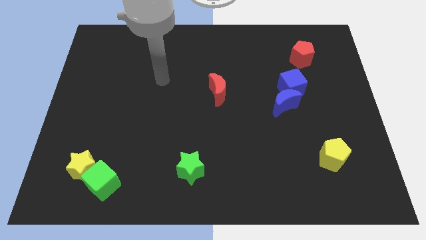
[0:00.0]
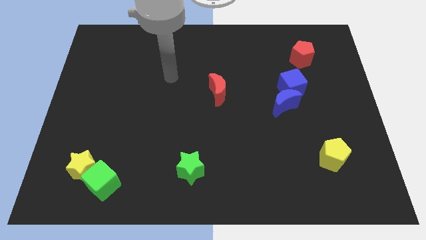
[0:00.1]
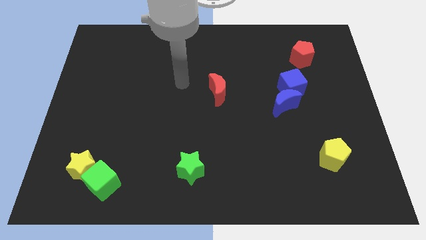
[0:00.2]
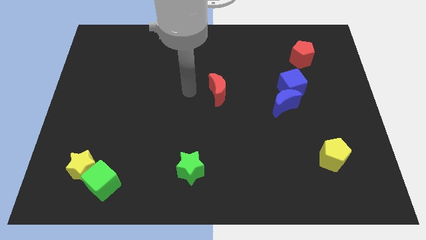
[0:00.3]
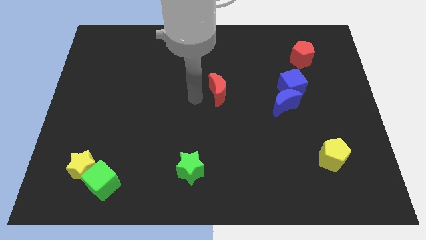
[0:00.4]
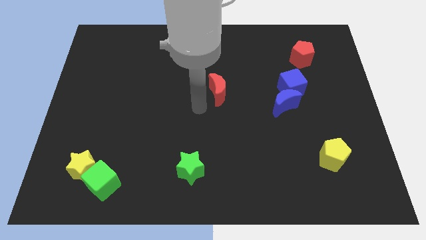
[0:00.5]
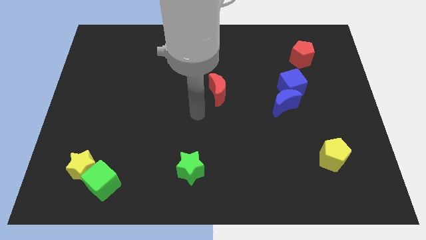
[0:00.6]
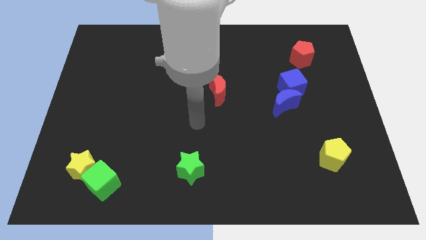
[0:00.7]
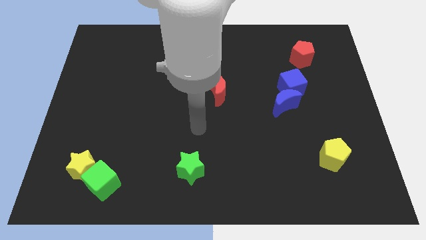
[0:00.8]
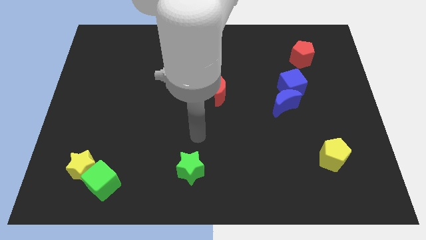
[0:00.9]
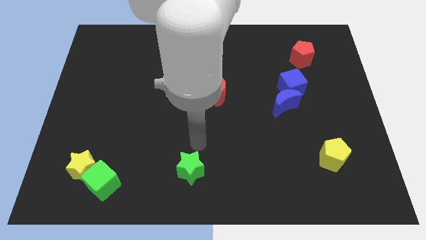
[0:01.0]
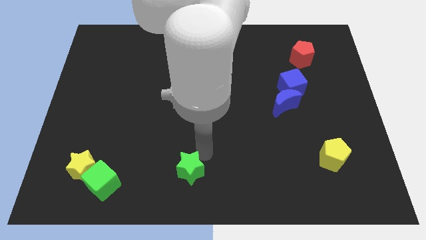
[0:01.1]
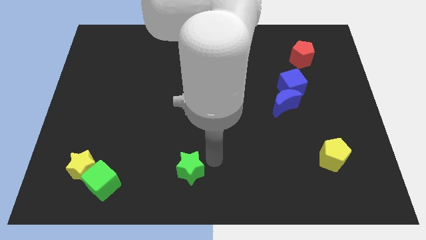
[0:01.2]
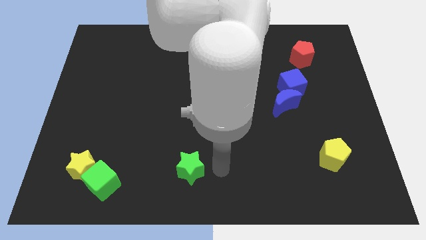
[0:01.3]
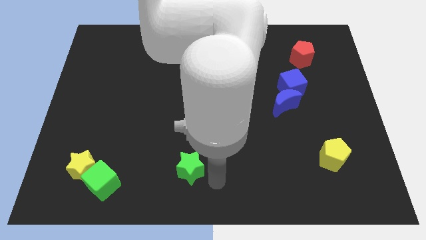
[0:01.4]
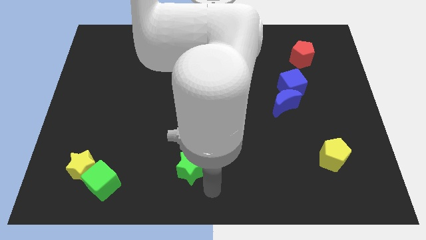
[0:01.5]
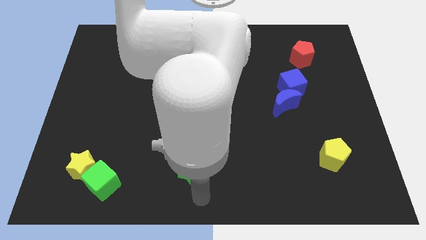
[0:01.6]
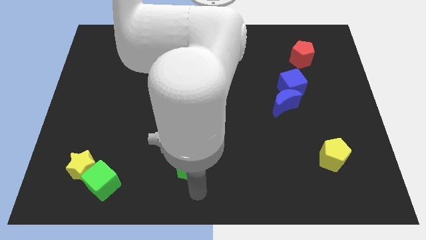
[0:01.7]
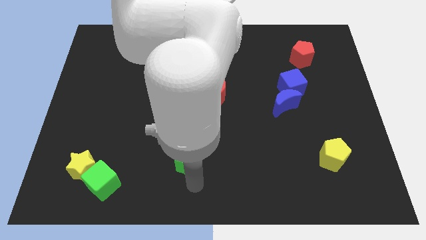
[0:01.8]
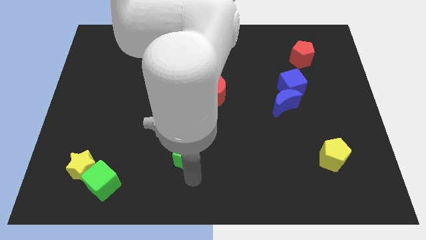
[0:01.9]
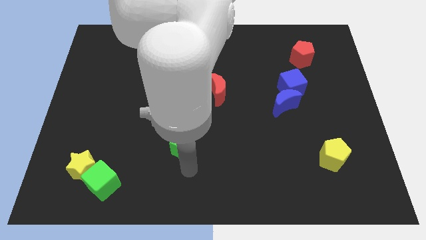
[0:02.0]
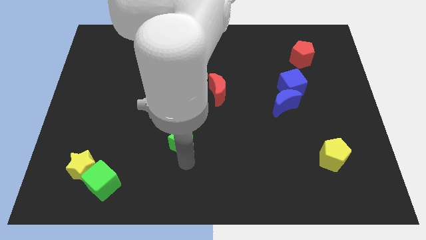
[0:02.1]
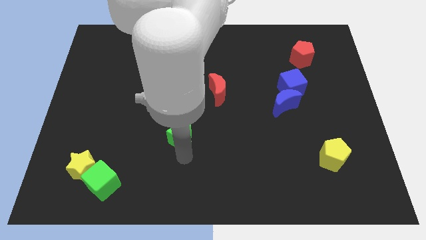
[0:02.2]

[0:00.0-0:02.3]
slightly slide the green star upwards

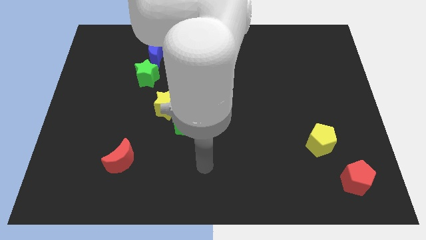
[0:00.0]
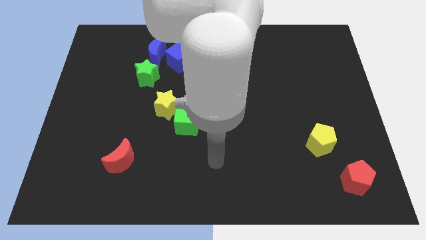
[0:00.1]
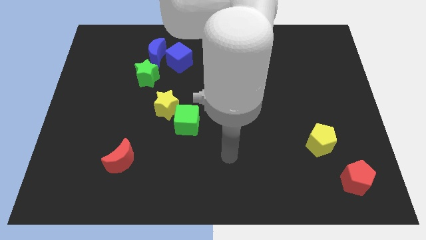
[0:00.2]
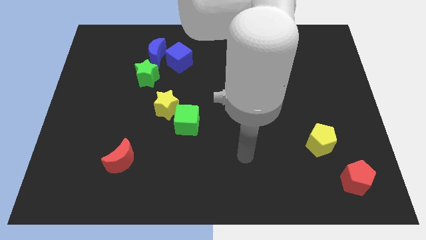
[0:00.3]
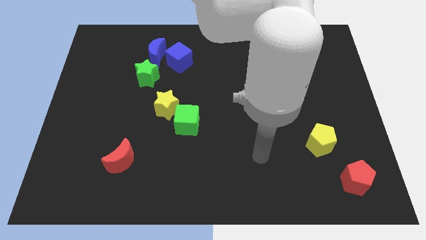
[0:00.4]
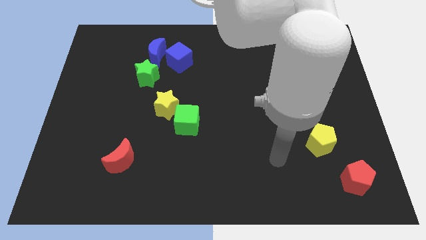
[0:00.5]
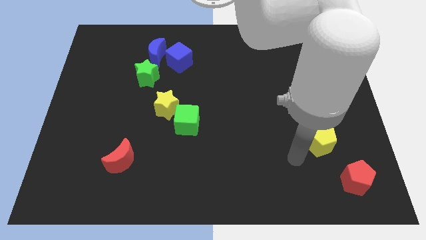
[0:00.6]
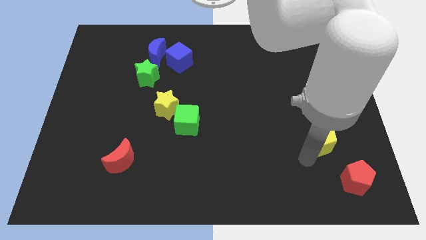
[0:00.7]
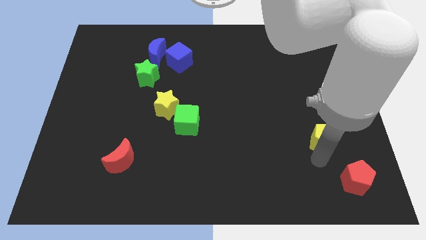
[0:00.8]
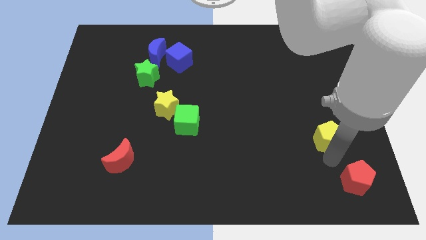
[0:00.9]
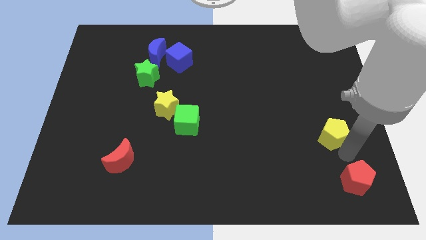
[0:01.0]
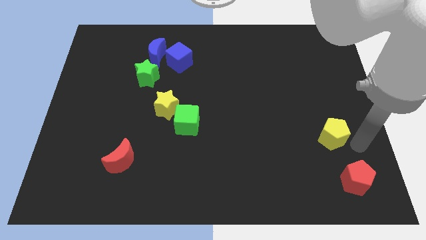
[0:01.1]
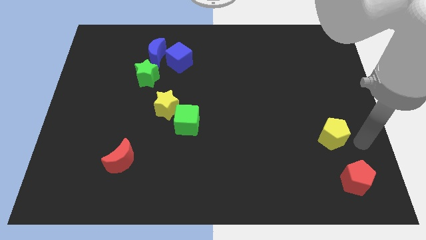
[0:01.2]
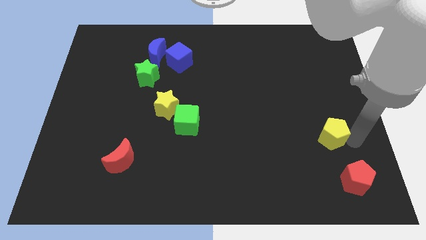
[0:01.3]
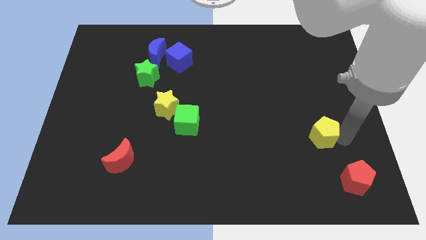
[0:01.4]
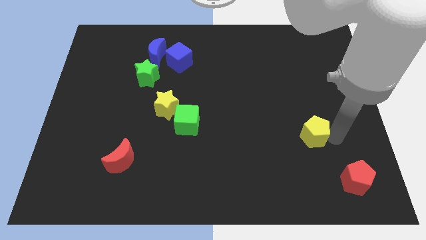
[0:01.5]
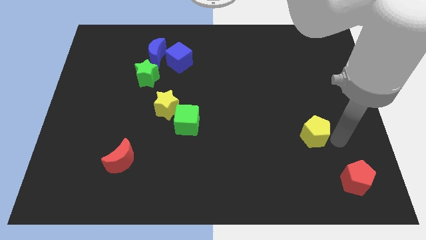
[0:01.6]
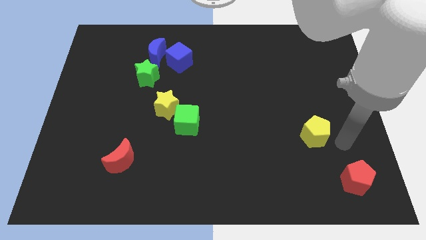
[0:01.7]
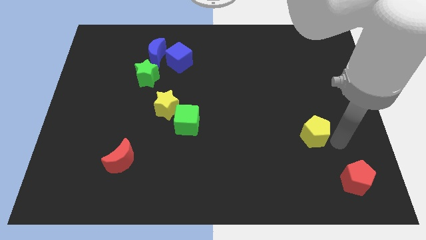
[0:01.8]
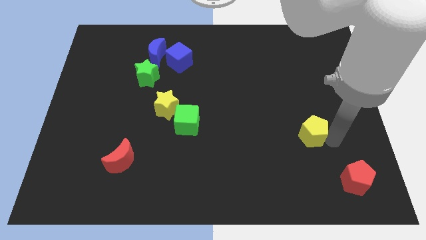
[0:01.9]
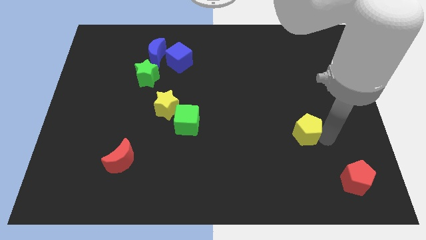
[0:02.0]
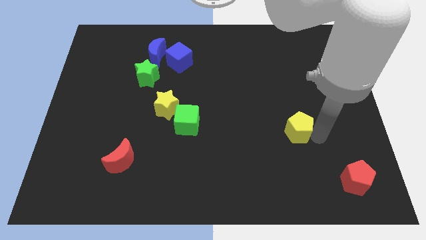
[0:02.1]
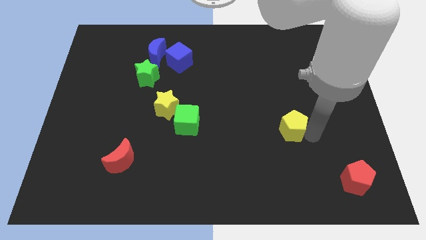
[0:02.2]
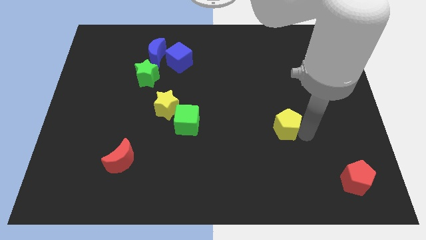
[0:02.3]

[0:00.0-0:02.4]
push the yellow pentagon up and then left a little

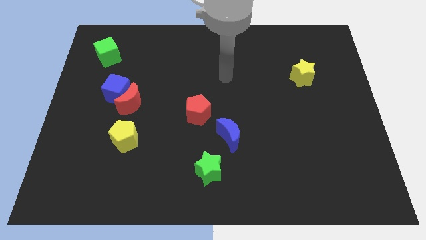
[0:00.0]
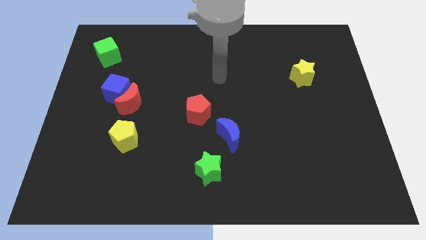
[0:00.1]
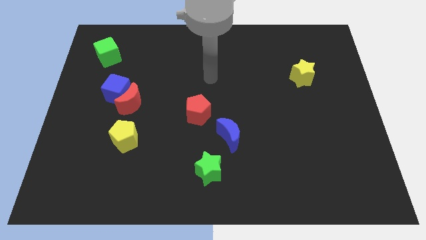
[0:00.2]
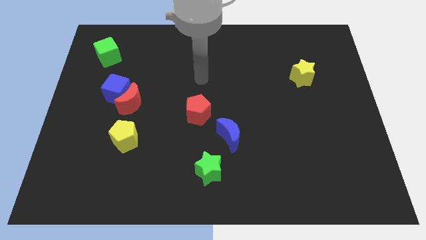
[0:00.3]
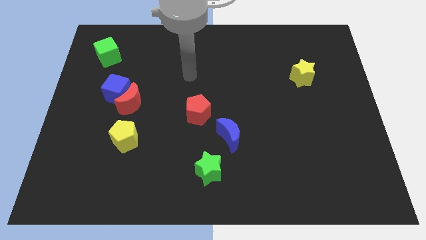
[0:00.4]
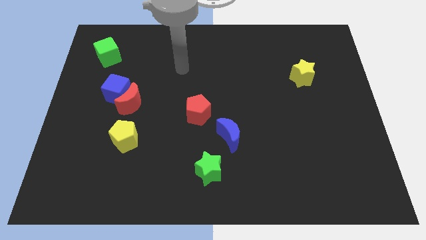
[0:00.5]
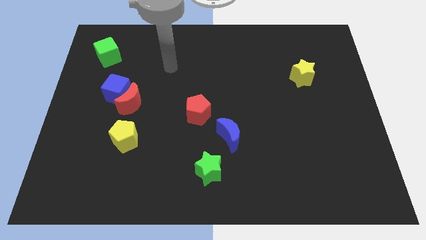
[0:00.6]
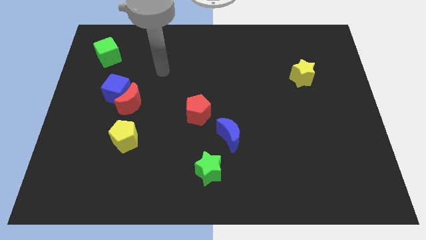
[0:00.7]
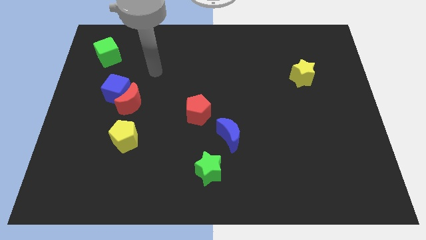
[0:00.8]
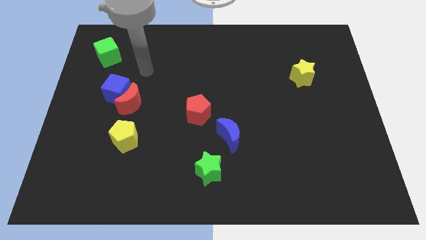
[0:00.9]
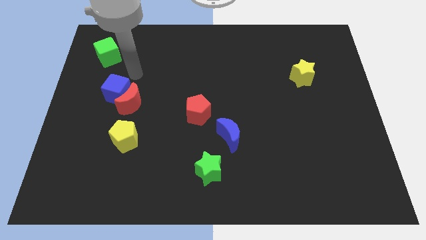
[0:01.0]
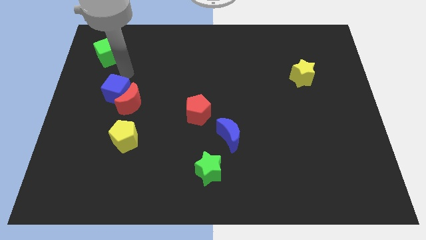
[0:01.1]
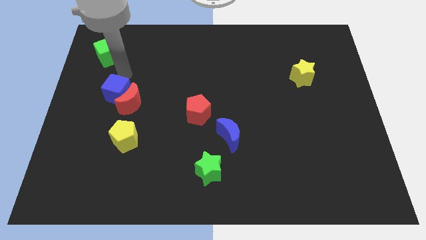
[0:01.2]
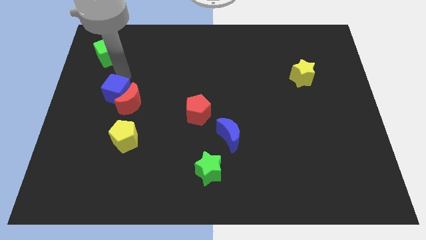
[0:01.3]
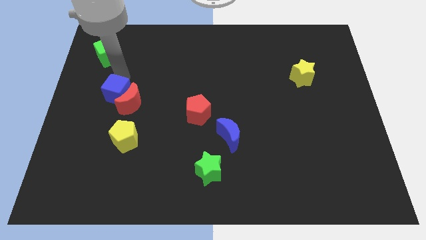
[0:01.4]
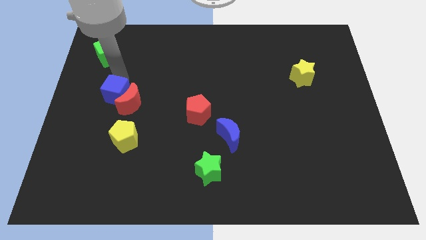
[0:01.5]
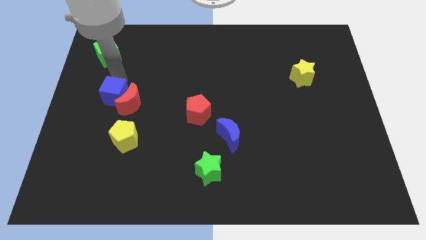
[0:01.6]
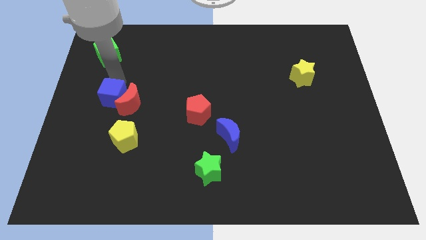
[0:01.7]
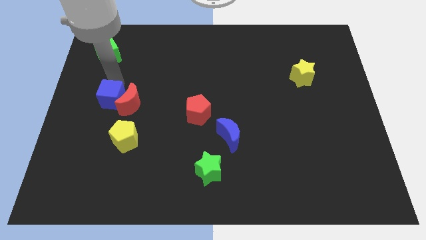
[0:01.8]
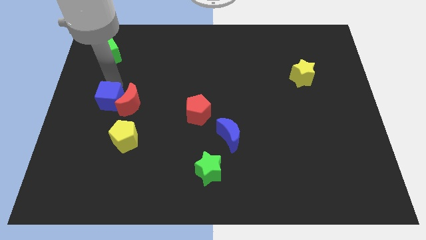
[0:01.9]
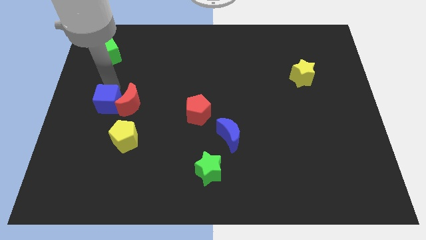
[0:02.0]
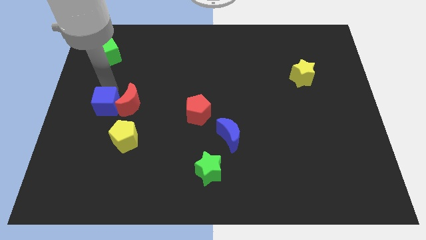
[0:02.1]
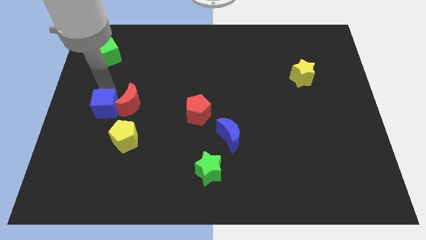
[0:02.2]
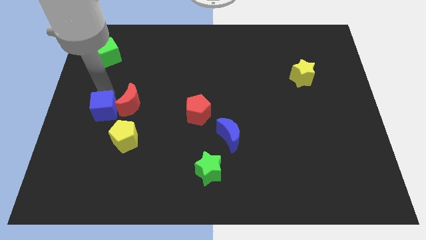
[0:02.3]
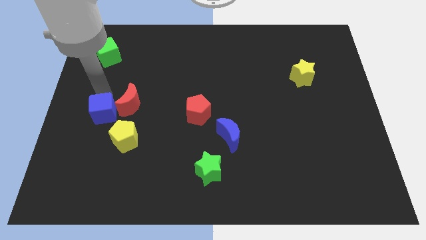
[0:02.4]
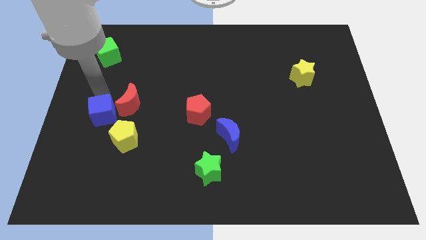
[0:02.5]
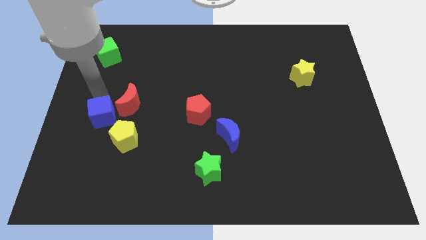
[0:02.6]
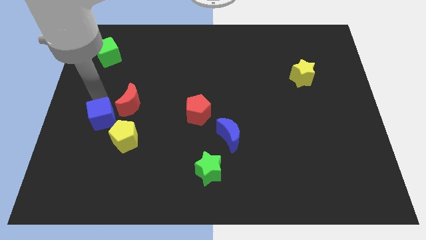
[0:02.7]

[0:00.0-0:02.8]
push the blue cube down a little

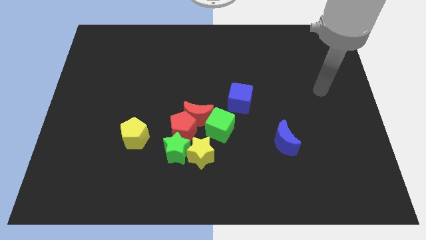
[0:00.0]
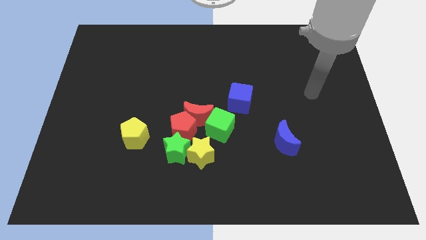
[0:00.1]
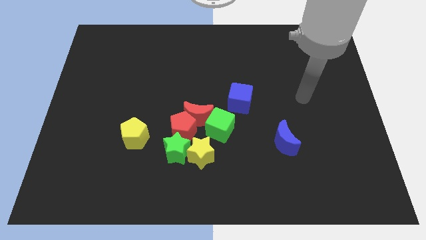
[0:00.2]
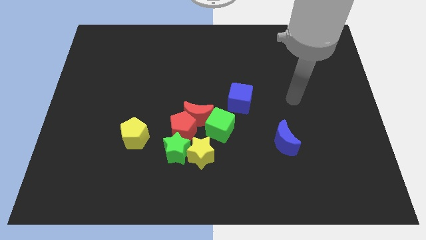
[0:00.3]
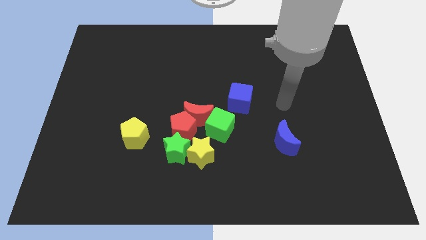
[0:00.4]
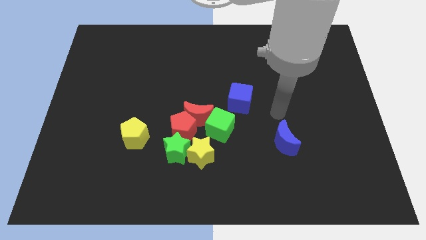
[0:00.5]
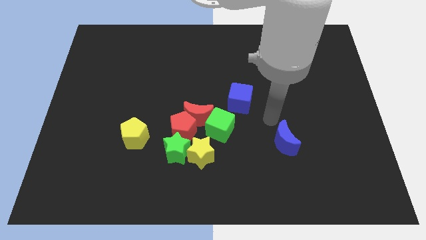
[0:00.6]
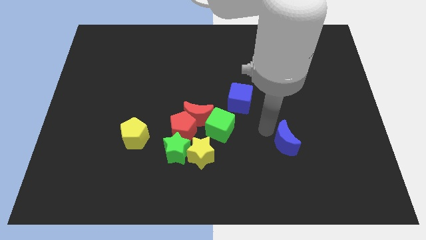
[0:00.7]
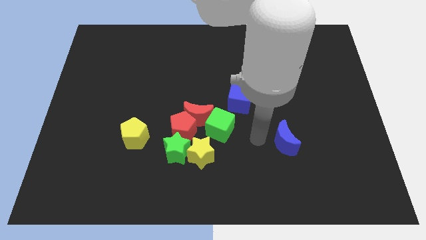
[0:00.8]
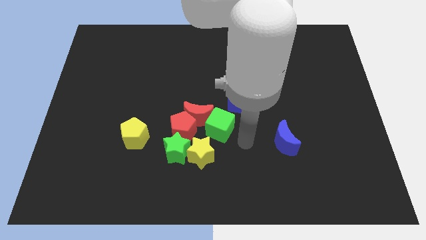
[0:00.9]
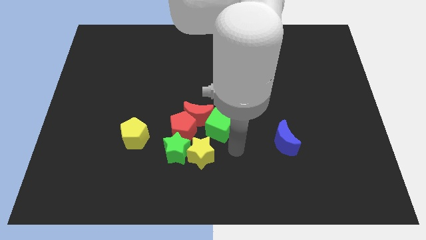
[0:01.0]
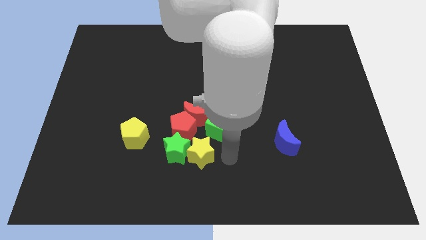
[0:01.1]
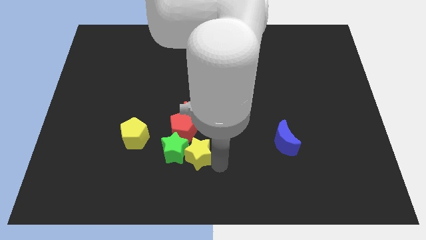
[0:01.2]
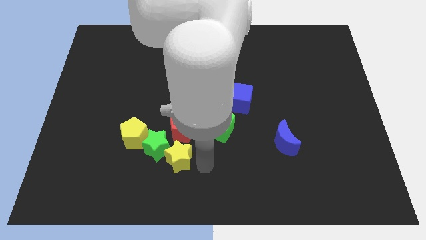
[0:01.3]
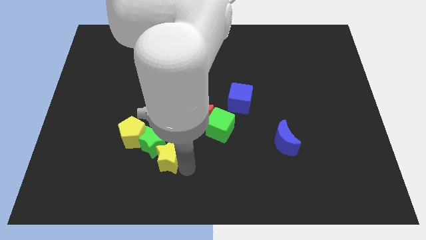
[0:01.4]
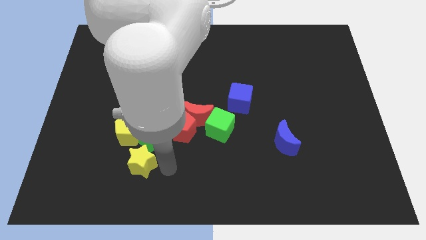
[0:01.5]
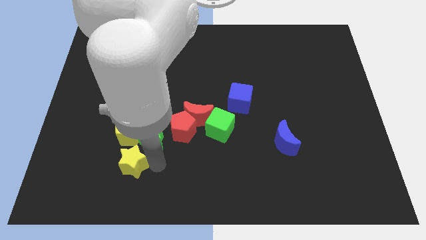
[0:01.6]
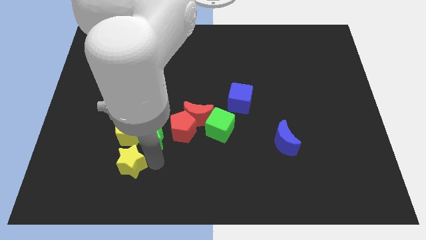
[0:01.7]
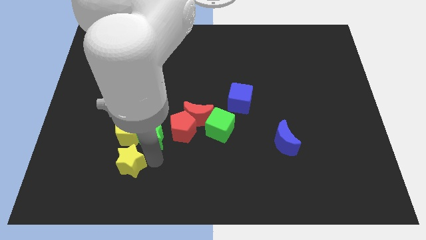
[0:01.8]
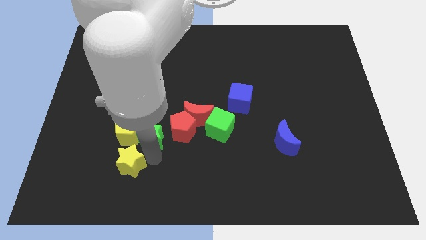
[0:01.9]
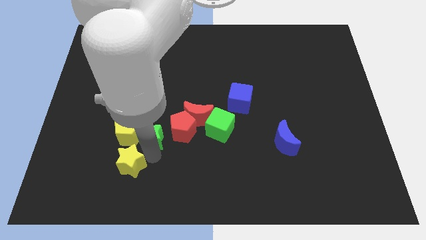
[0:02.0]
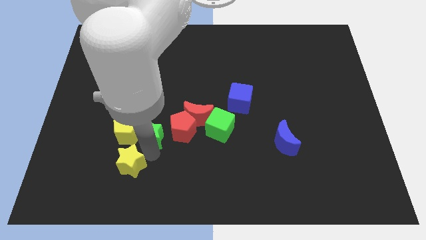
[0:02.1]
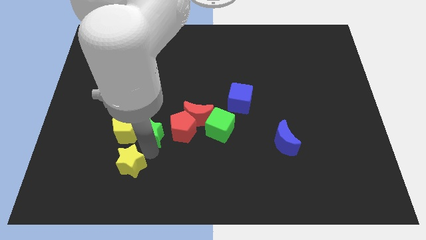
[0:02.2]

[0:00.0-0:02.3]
move the green star slightly up and to the left diagonally
